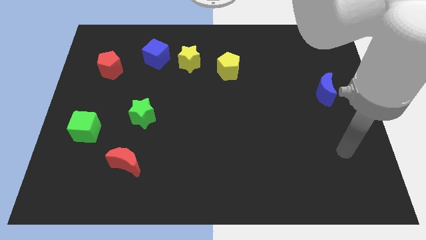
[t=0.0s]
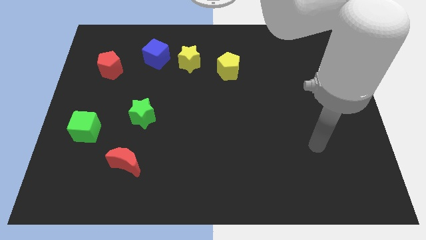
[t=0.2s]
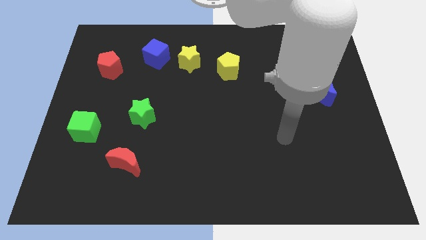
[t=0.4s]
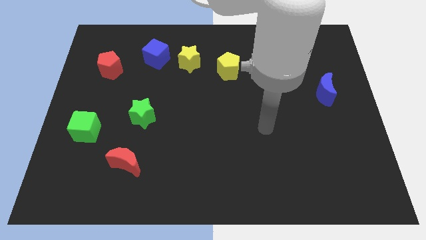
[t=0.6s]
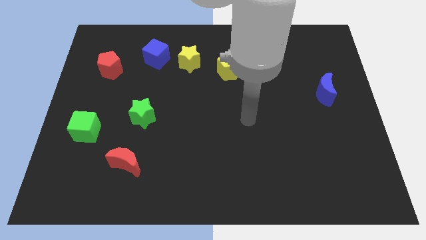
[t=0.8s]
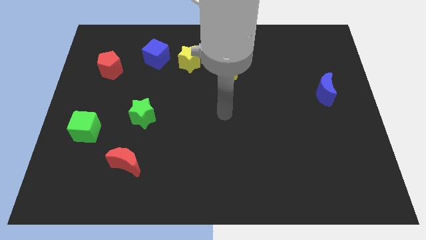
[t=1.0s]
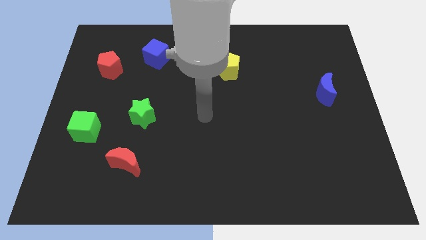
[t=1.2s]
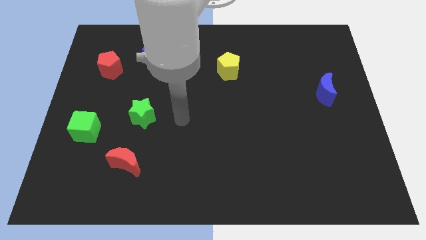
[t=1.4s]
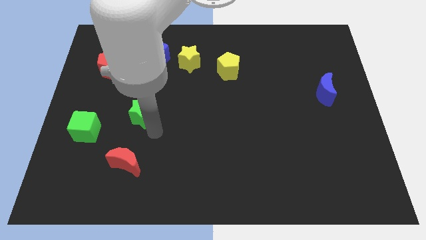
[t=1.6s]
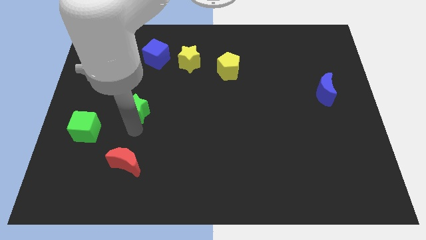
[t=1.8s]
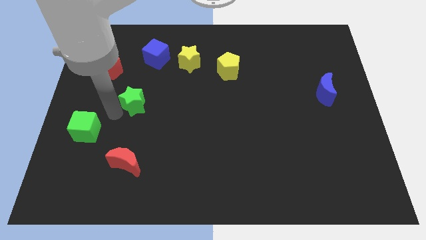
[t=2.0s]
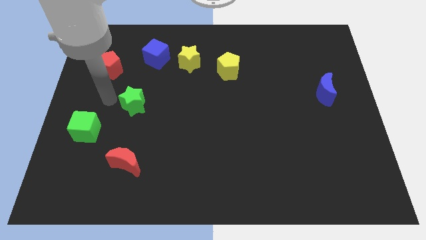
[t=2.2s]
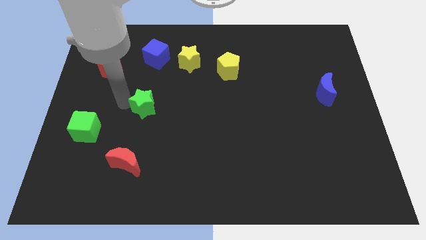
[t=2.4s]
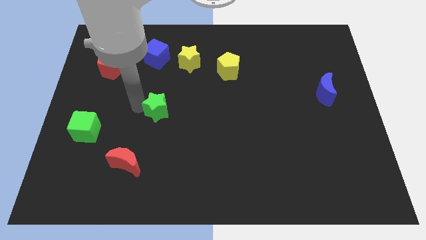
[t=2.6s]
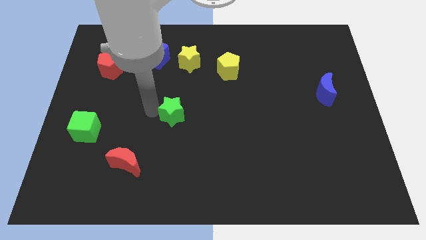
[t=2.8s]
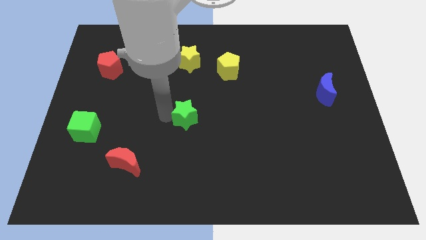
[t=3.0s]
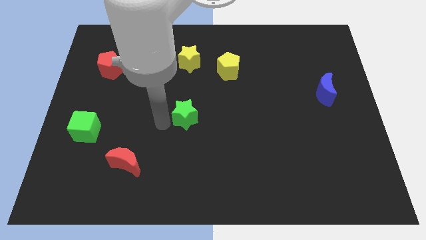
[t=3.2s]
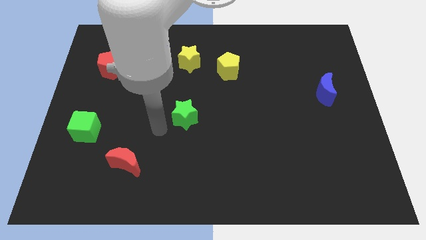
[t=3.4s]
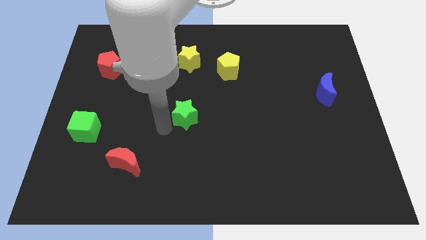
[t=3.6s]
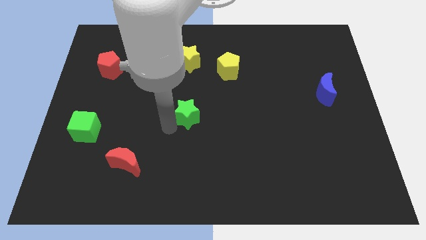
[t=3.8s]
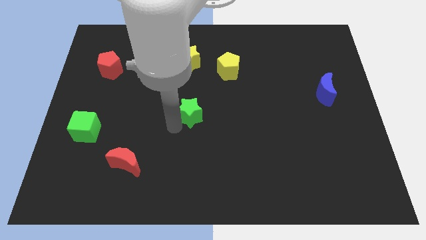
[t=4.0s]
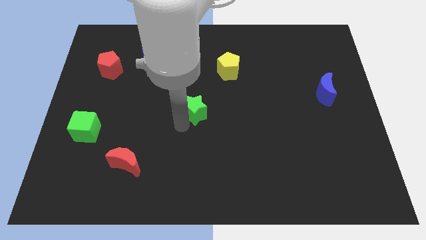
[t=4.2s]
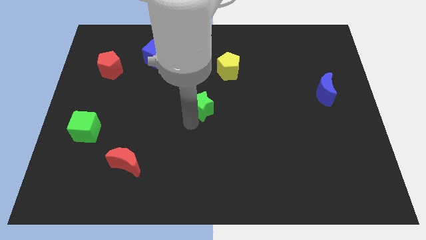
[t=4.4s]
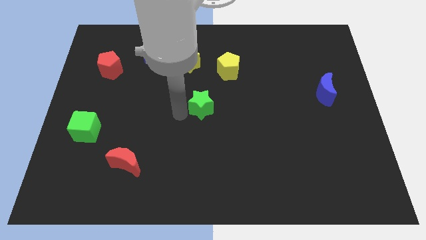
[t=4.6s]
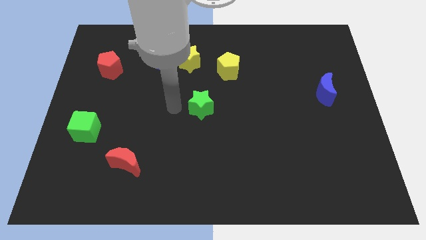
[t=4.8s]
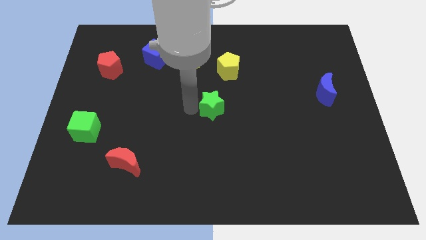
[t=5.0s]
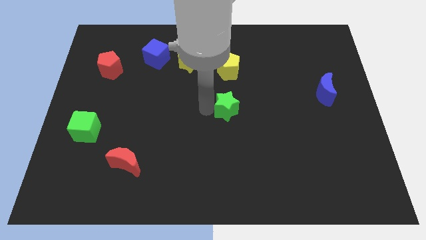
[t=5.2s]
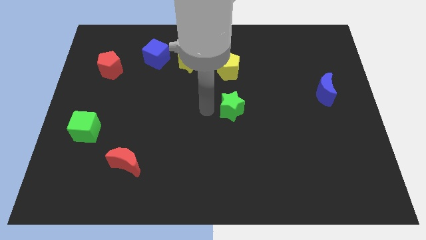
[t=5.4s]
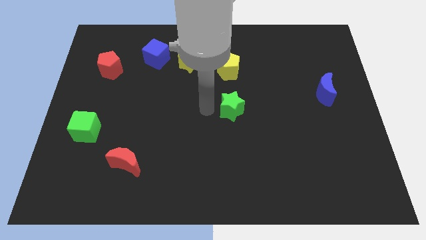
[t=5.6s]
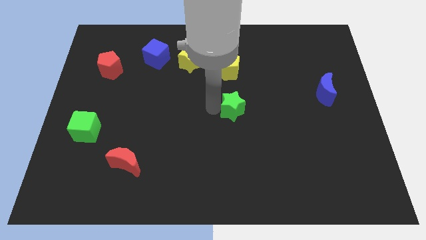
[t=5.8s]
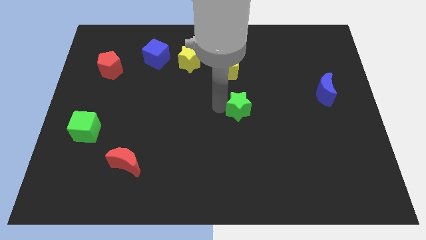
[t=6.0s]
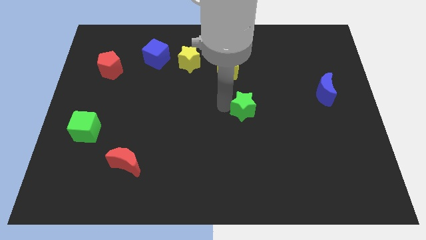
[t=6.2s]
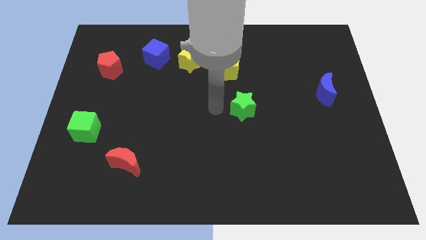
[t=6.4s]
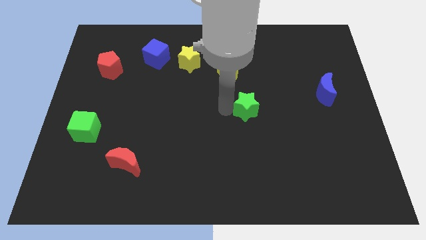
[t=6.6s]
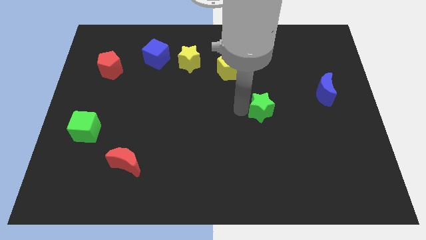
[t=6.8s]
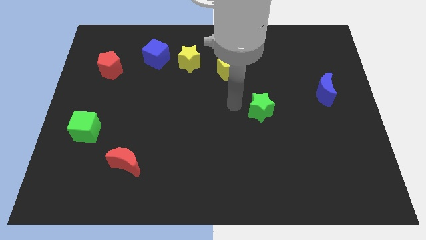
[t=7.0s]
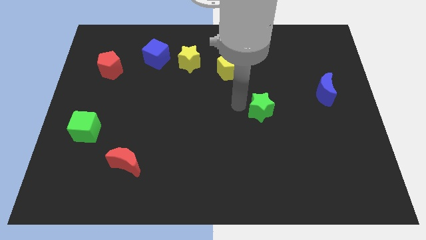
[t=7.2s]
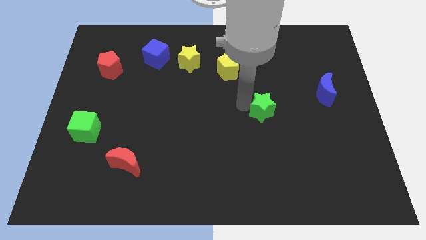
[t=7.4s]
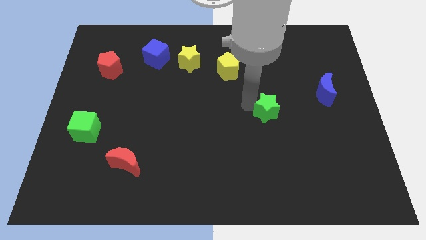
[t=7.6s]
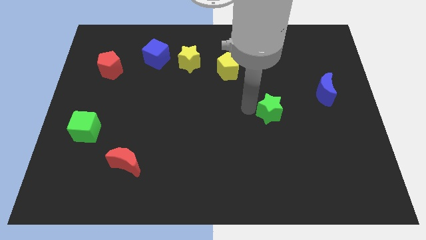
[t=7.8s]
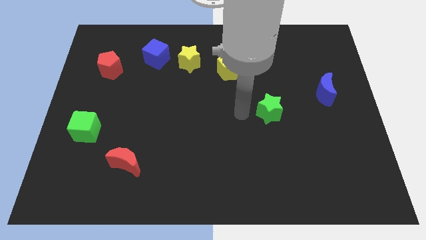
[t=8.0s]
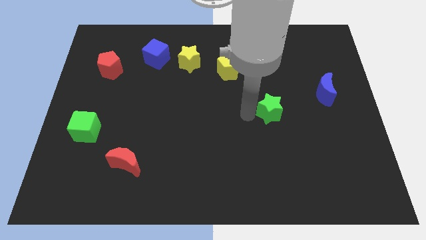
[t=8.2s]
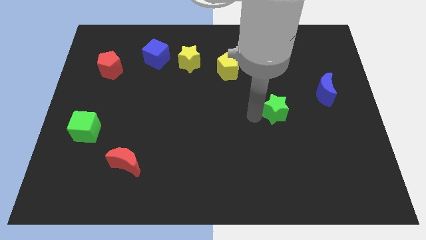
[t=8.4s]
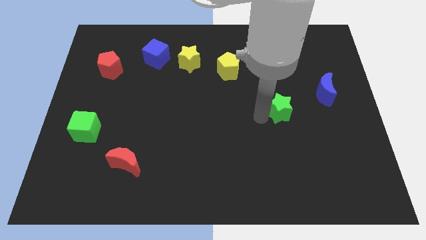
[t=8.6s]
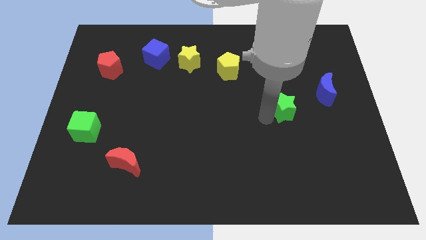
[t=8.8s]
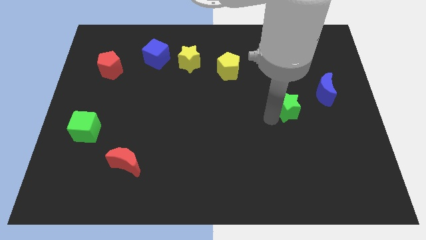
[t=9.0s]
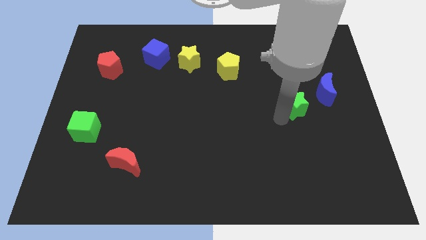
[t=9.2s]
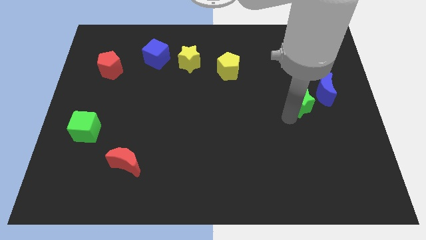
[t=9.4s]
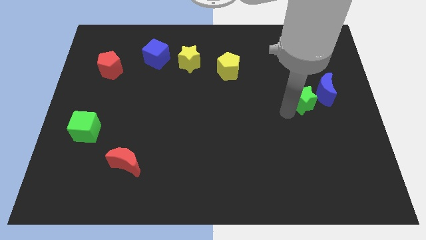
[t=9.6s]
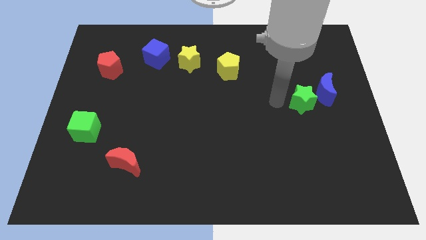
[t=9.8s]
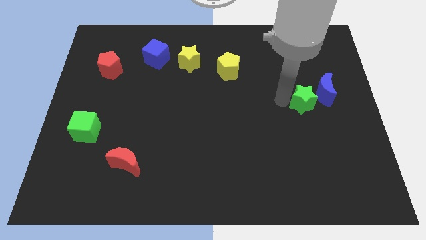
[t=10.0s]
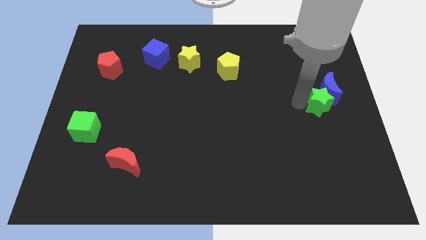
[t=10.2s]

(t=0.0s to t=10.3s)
put the green star to the center right
